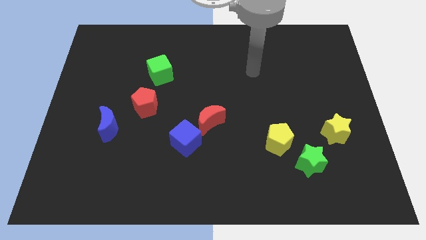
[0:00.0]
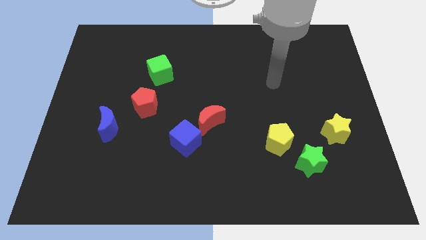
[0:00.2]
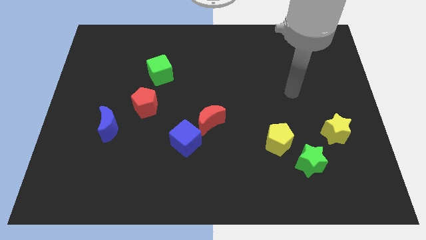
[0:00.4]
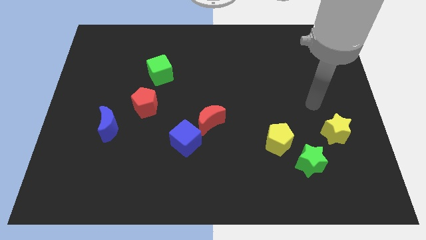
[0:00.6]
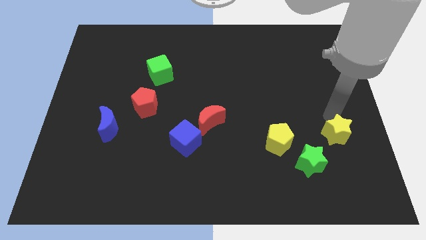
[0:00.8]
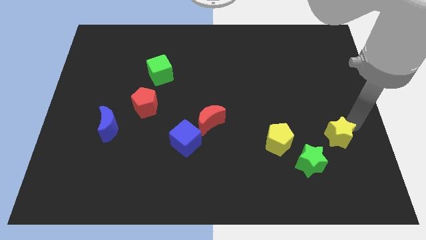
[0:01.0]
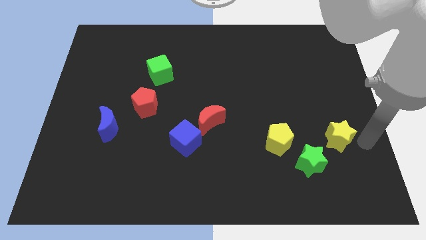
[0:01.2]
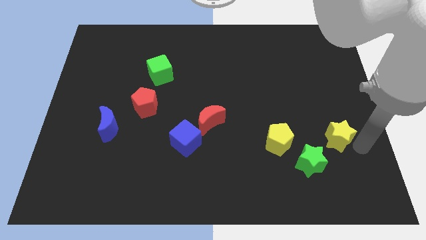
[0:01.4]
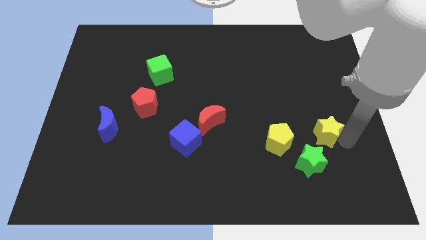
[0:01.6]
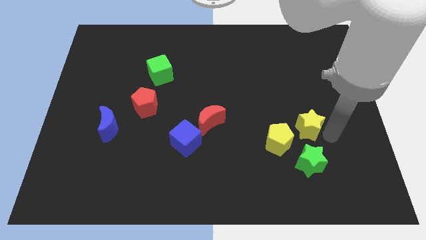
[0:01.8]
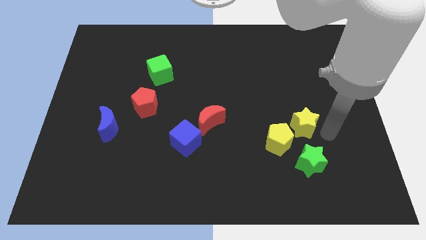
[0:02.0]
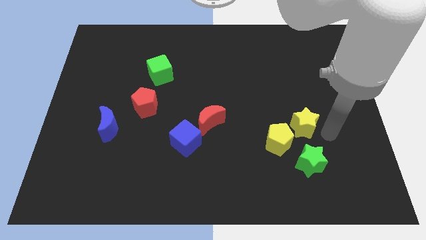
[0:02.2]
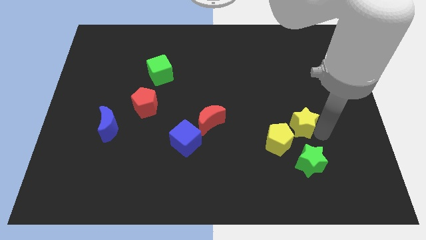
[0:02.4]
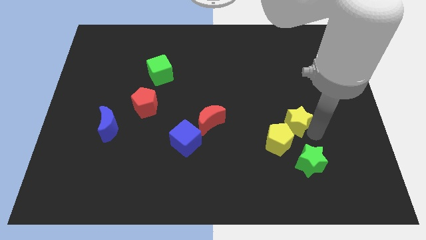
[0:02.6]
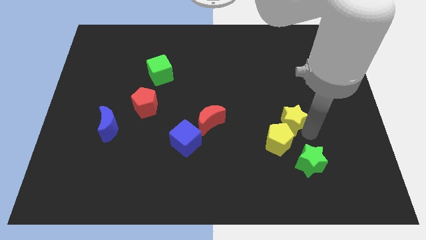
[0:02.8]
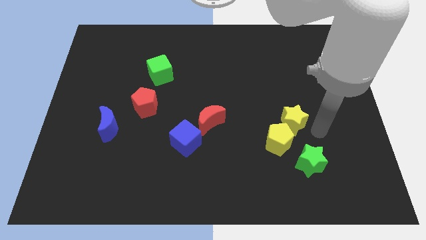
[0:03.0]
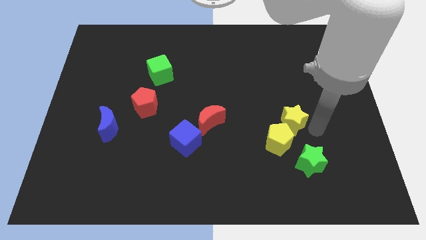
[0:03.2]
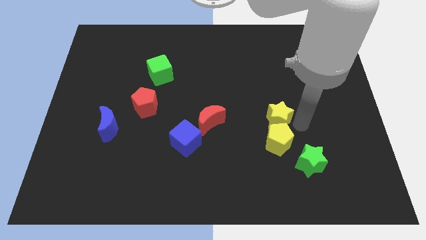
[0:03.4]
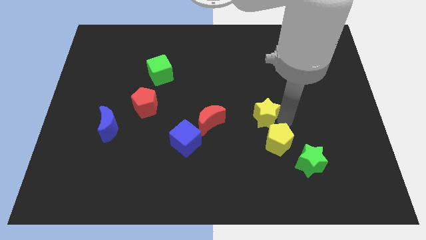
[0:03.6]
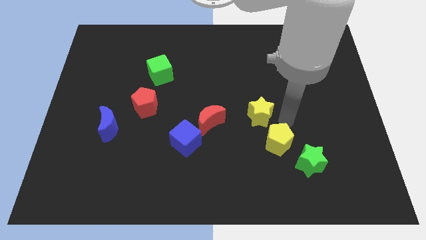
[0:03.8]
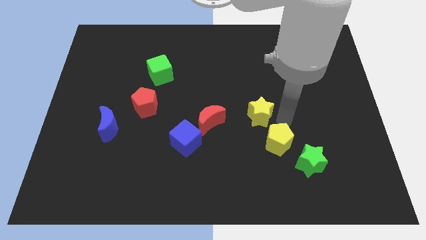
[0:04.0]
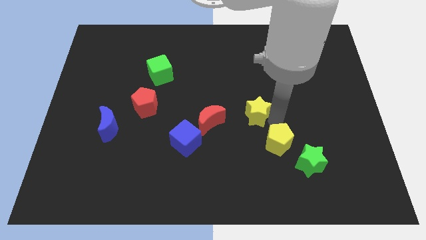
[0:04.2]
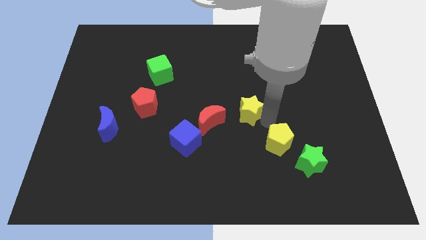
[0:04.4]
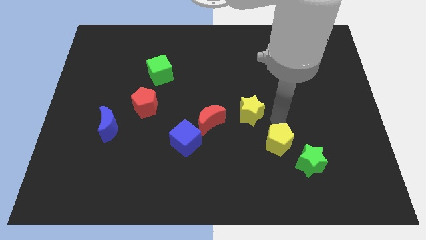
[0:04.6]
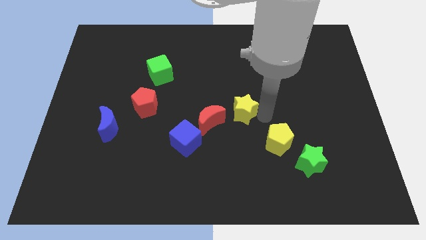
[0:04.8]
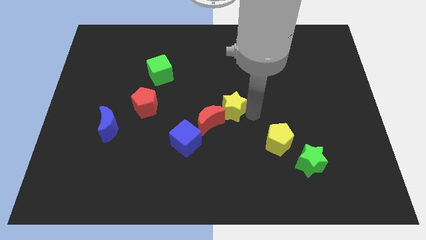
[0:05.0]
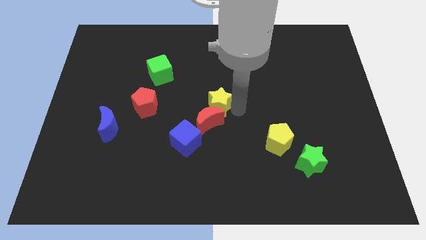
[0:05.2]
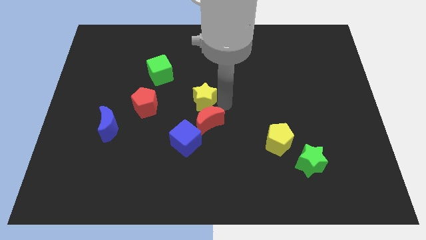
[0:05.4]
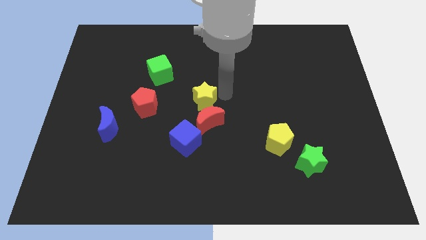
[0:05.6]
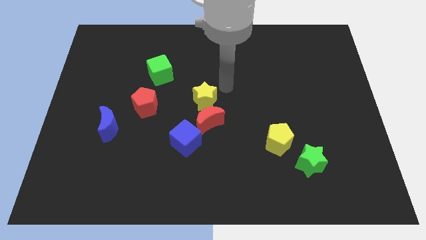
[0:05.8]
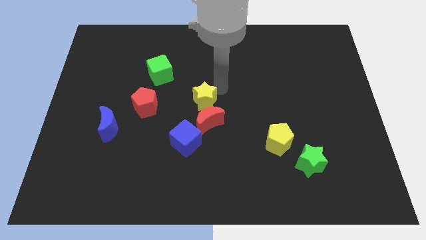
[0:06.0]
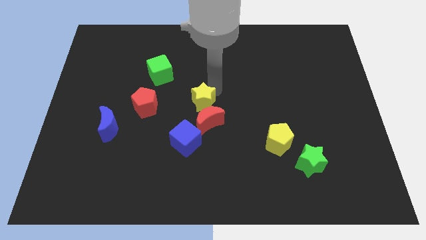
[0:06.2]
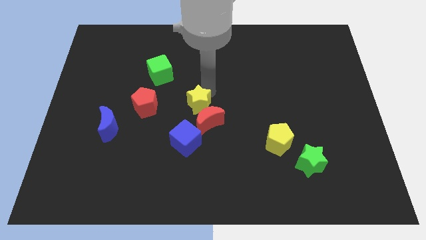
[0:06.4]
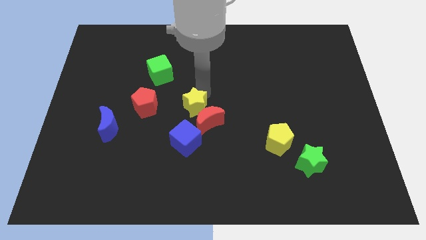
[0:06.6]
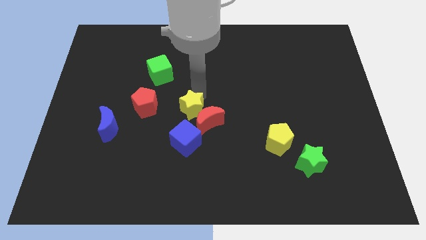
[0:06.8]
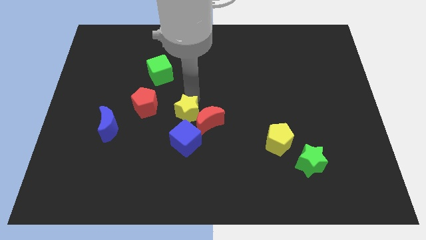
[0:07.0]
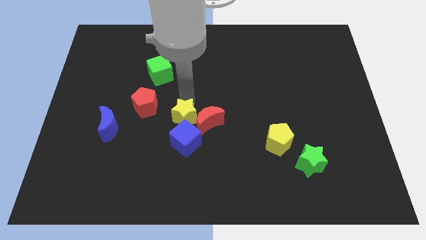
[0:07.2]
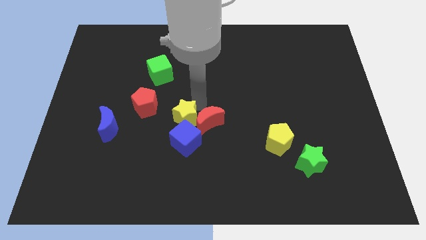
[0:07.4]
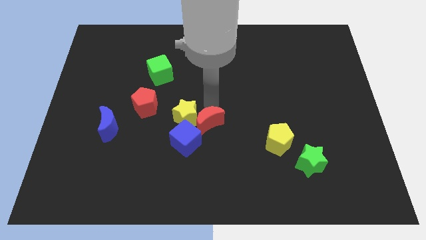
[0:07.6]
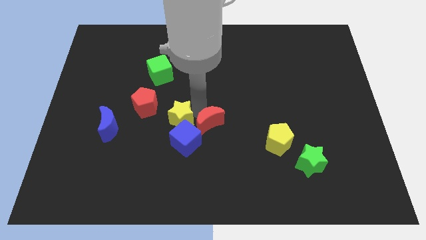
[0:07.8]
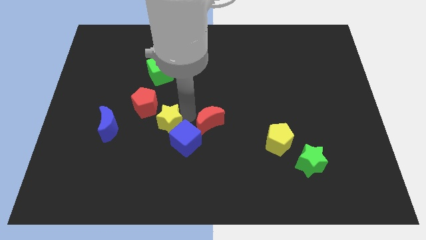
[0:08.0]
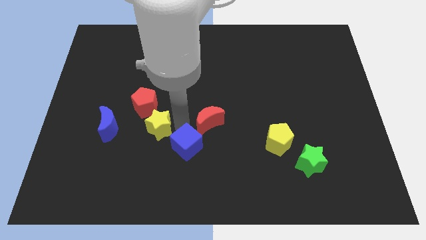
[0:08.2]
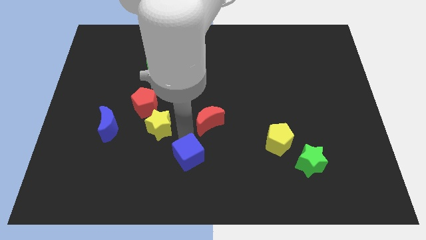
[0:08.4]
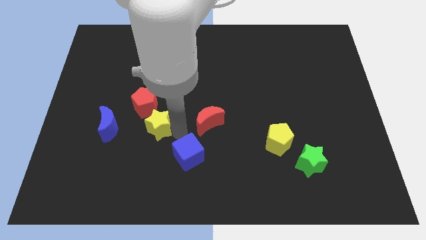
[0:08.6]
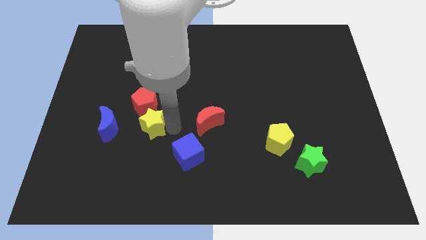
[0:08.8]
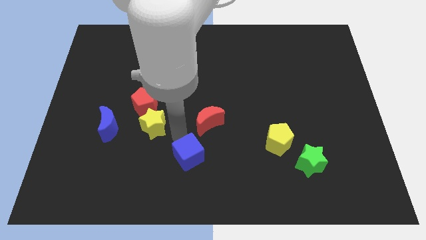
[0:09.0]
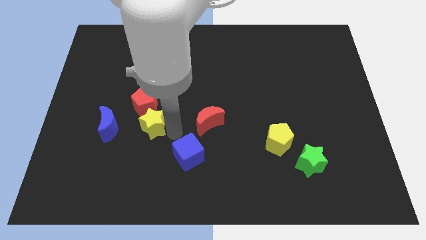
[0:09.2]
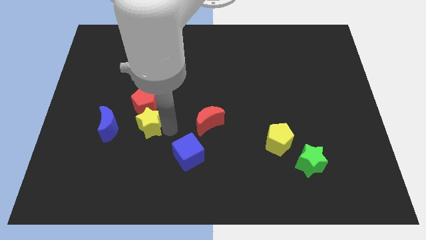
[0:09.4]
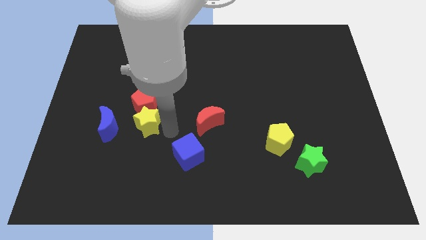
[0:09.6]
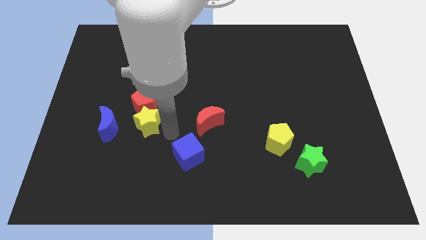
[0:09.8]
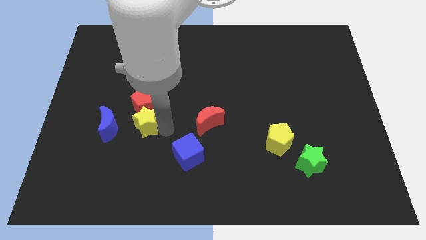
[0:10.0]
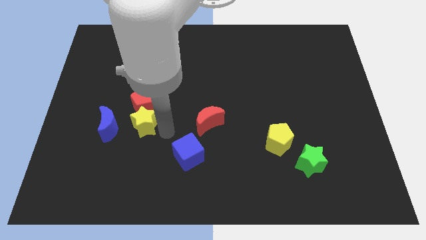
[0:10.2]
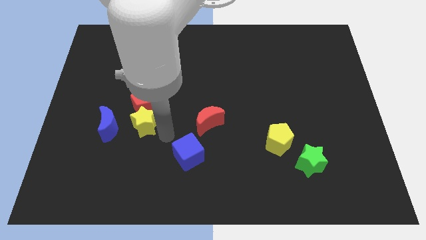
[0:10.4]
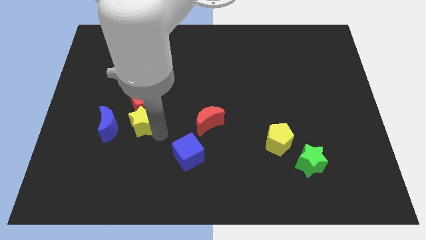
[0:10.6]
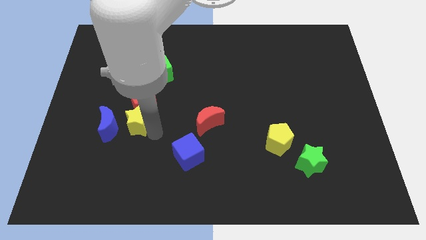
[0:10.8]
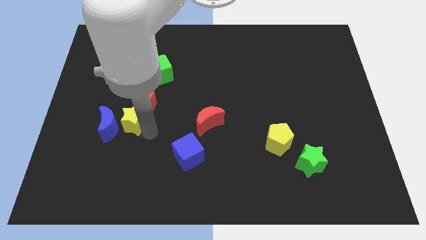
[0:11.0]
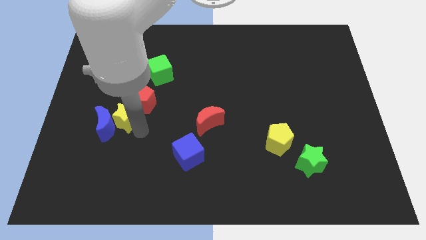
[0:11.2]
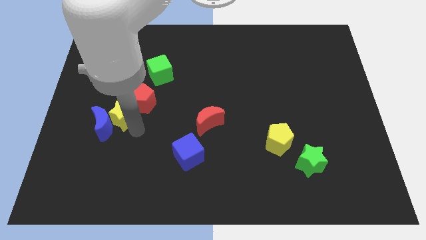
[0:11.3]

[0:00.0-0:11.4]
slide the yellow star to the left of the red pentagon

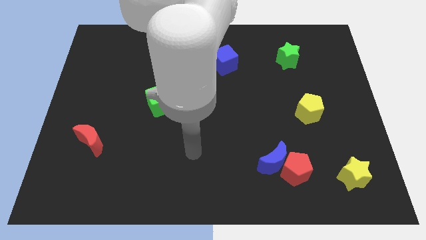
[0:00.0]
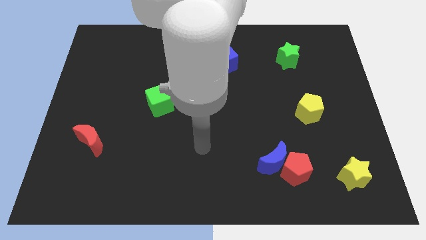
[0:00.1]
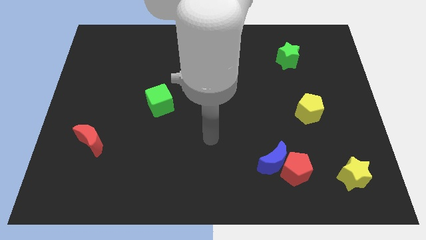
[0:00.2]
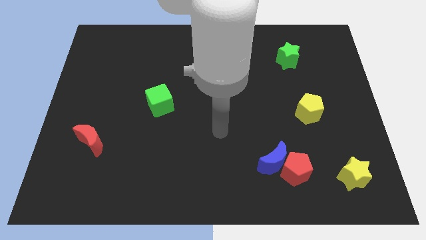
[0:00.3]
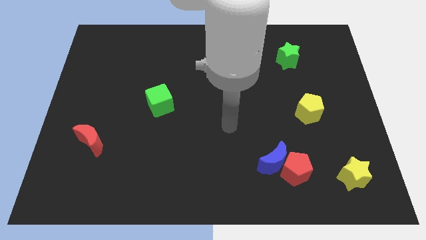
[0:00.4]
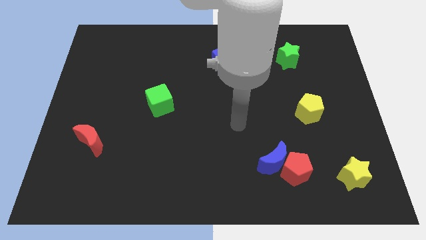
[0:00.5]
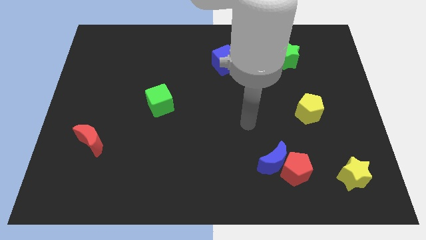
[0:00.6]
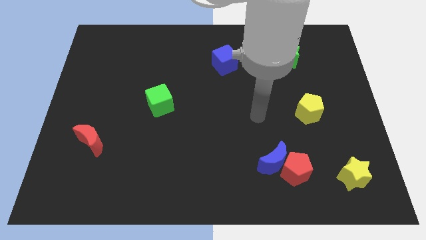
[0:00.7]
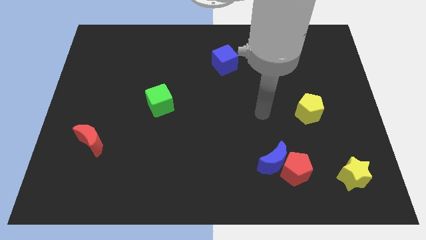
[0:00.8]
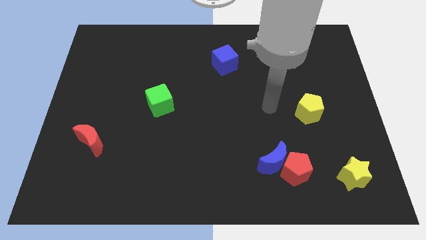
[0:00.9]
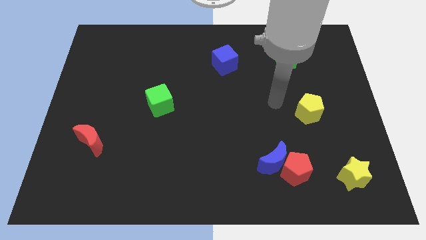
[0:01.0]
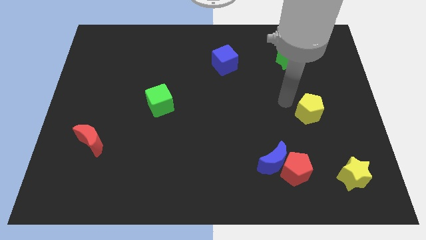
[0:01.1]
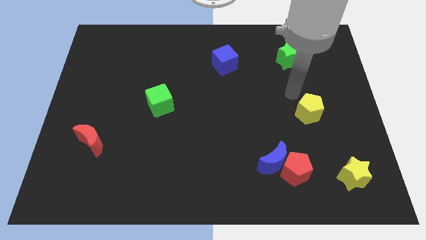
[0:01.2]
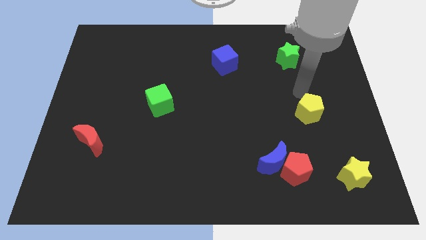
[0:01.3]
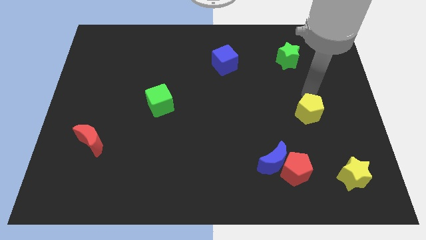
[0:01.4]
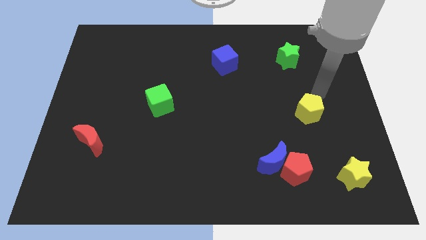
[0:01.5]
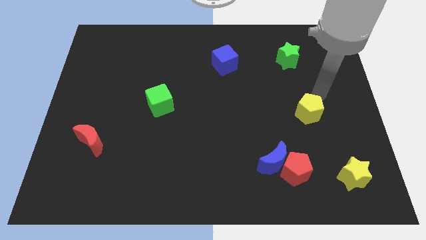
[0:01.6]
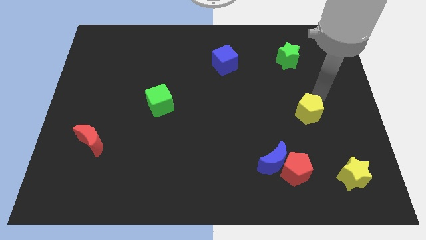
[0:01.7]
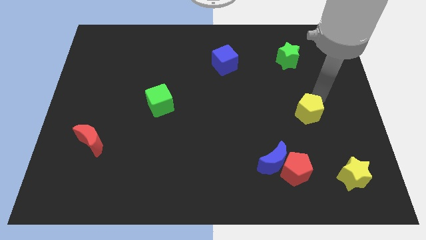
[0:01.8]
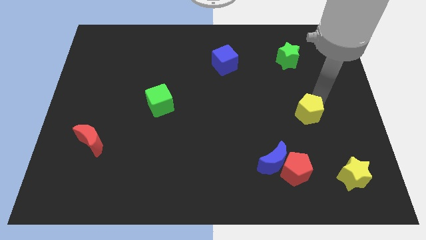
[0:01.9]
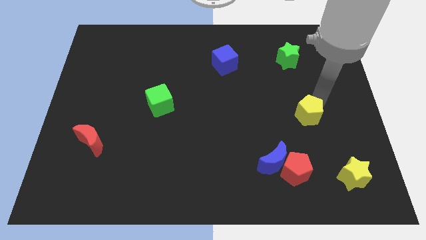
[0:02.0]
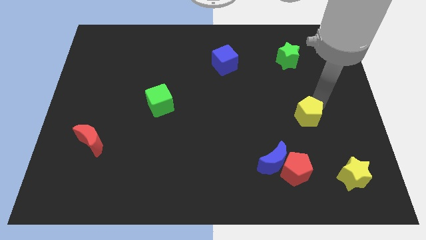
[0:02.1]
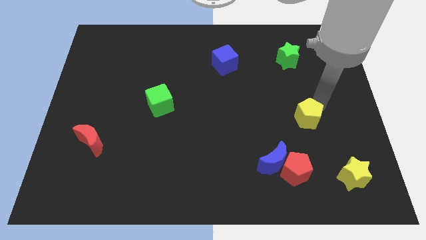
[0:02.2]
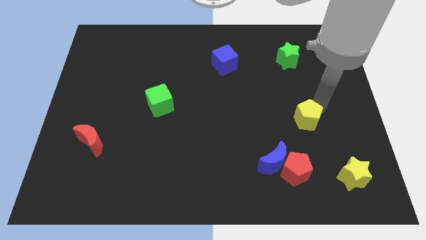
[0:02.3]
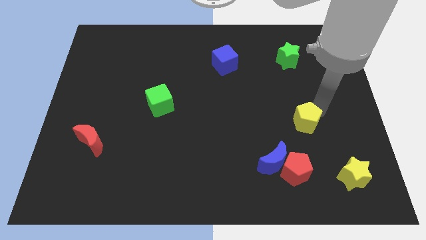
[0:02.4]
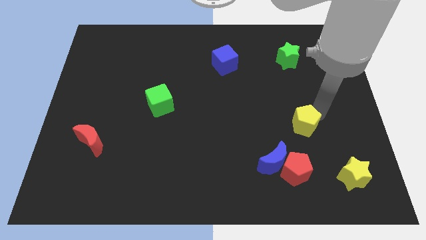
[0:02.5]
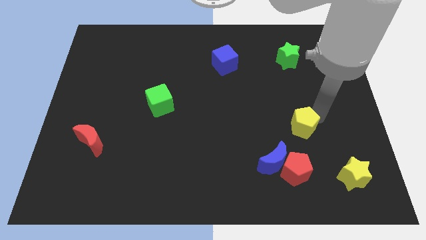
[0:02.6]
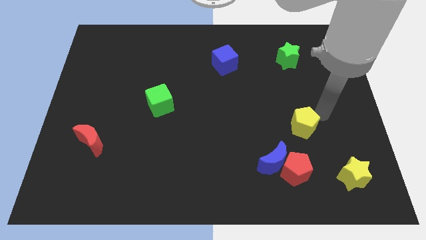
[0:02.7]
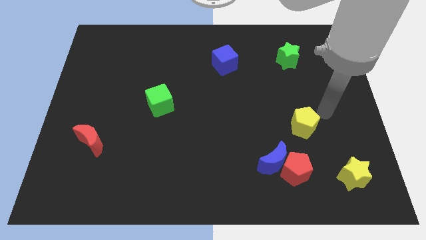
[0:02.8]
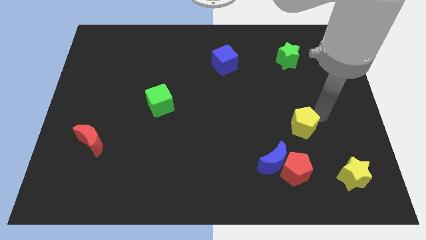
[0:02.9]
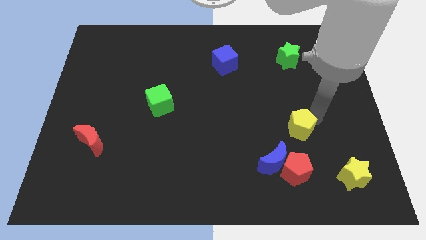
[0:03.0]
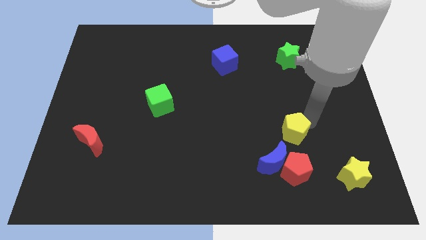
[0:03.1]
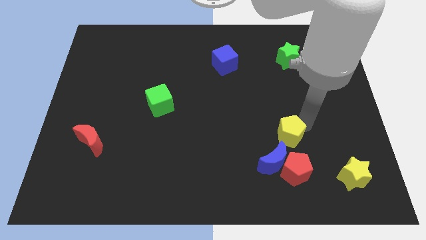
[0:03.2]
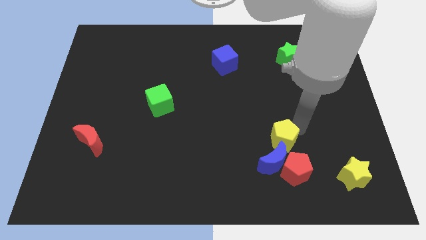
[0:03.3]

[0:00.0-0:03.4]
push the yellow pentagon to the top left side of the red pentagon
